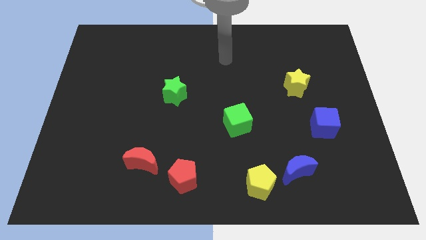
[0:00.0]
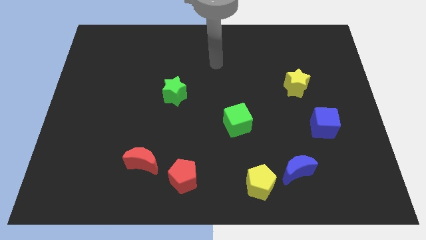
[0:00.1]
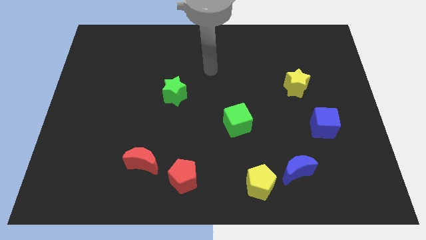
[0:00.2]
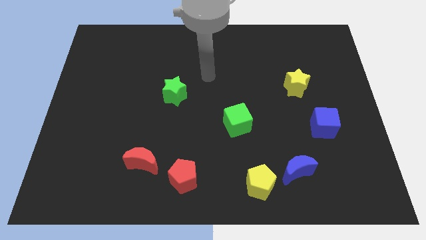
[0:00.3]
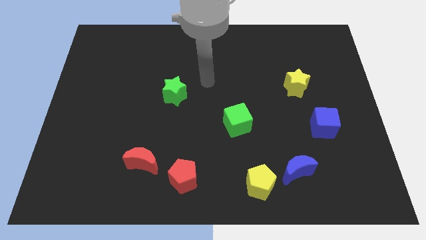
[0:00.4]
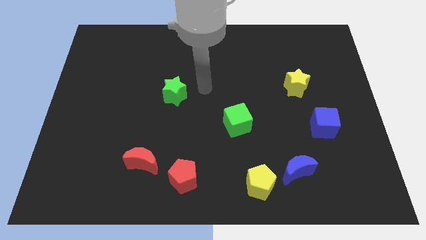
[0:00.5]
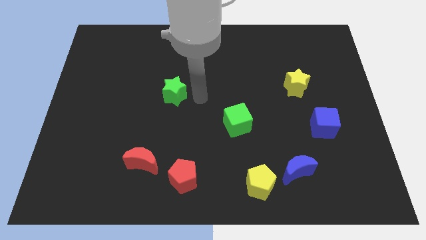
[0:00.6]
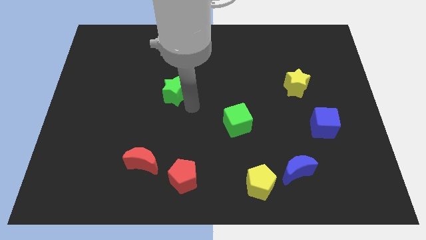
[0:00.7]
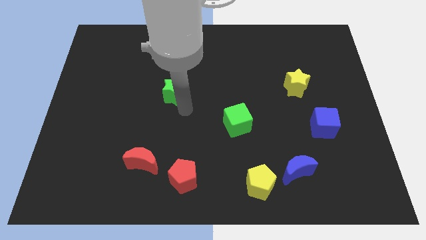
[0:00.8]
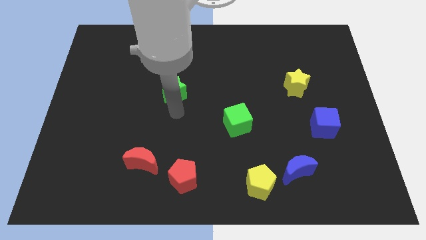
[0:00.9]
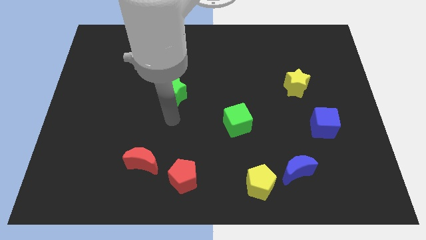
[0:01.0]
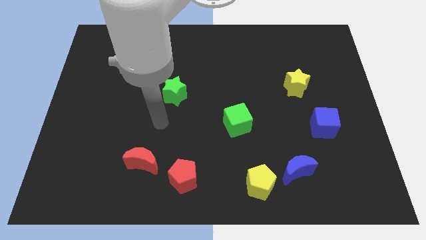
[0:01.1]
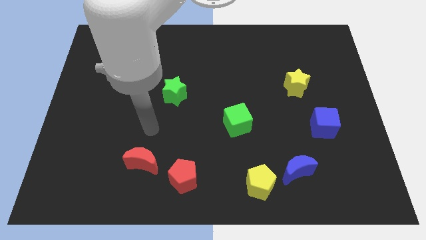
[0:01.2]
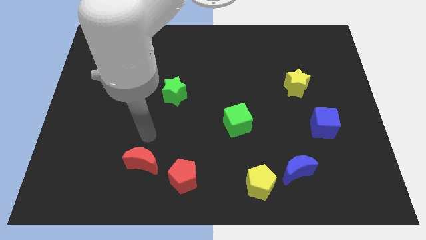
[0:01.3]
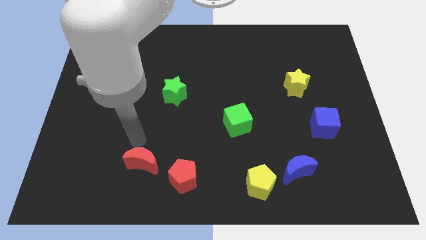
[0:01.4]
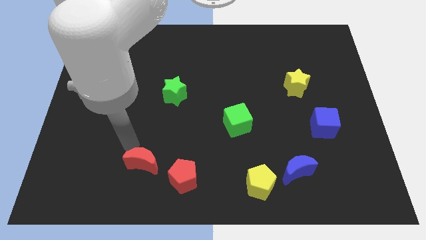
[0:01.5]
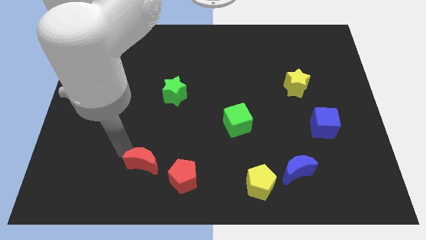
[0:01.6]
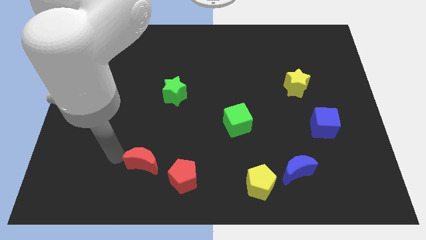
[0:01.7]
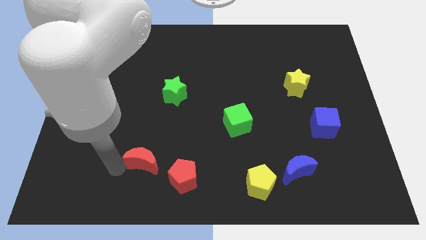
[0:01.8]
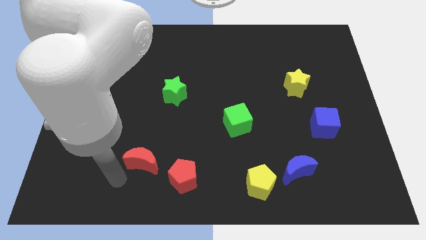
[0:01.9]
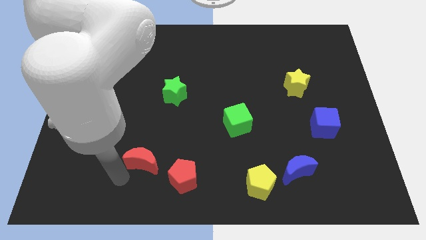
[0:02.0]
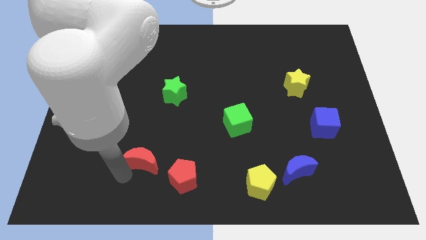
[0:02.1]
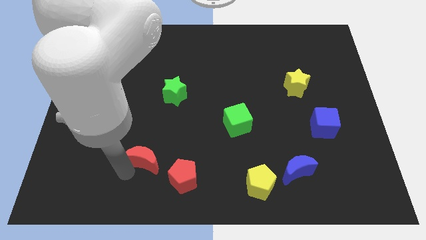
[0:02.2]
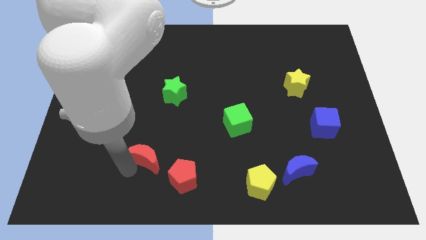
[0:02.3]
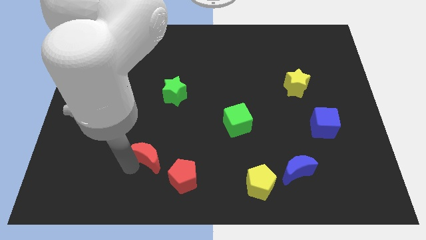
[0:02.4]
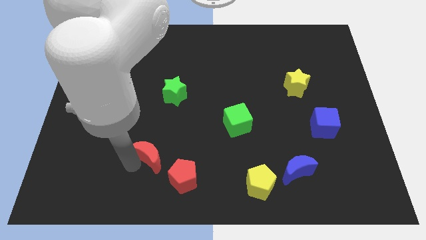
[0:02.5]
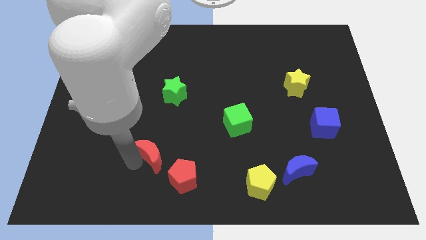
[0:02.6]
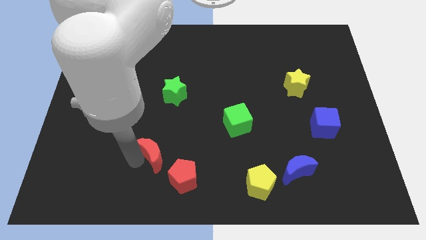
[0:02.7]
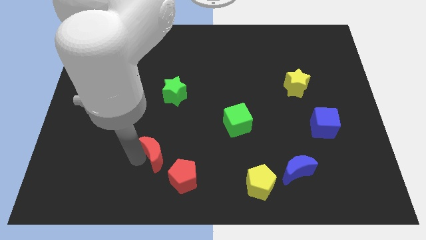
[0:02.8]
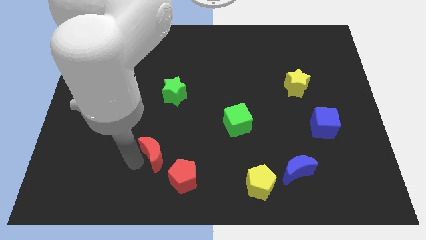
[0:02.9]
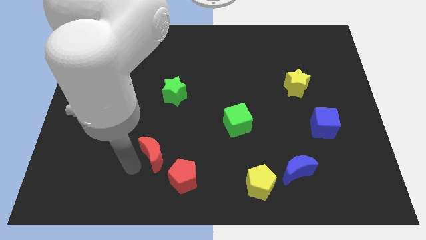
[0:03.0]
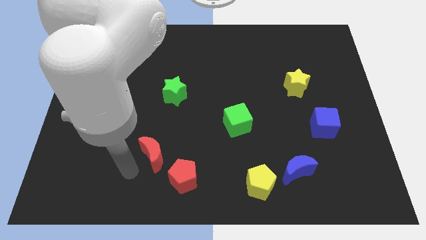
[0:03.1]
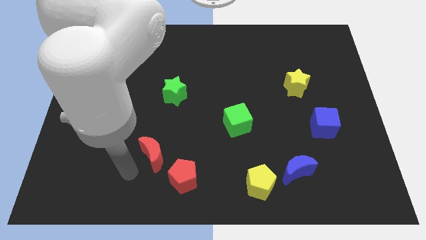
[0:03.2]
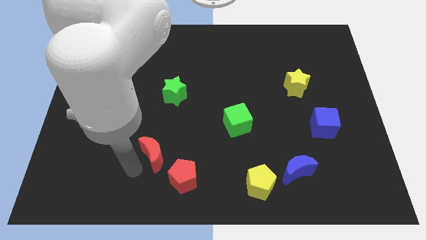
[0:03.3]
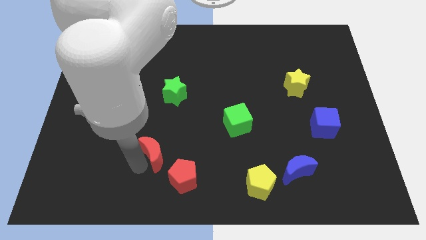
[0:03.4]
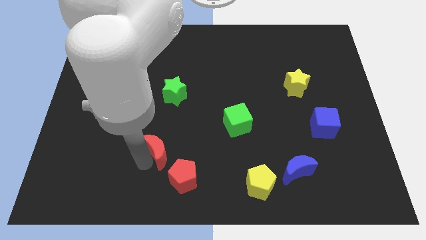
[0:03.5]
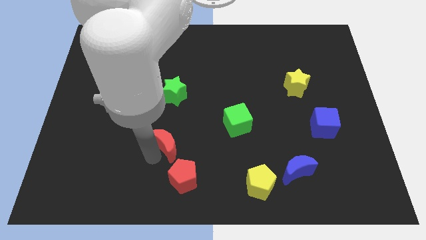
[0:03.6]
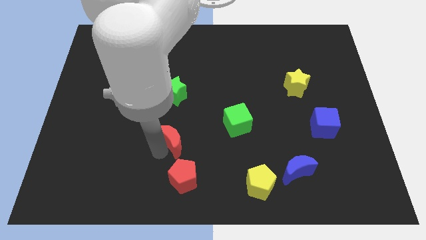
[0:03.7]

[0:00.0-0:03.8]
slide the red moon diagonally upwards and right slightly

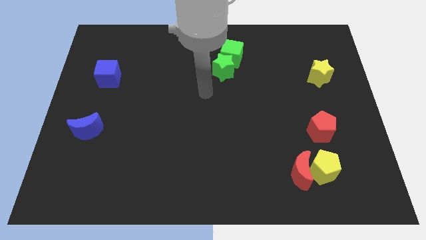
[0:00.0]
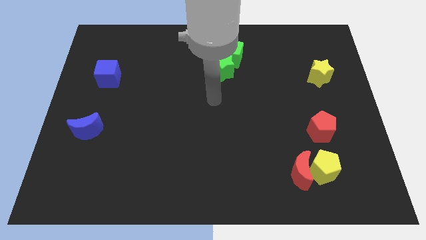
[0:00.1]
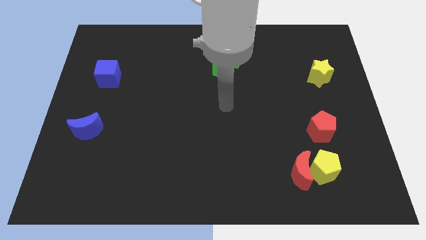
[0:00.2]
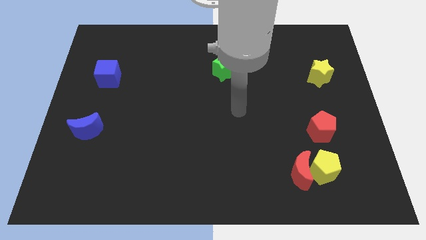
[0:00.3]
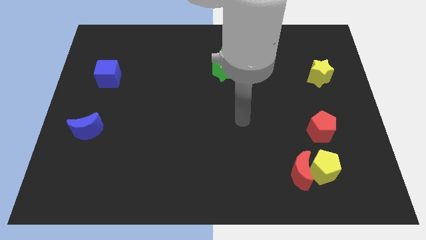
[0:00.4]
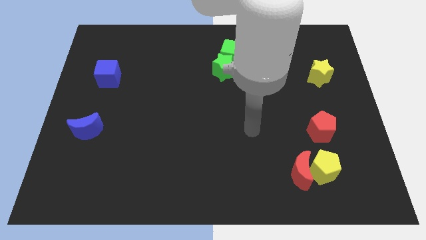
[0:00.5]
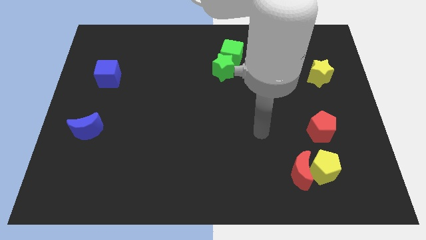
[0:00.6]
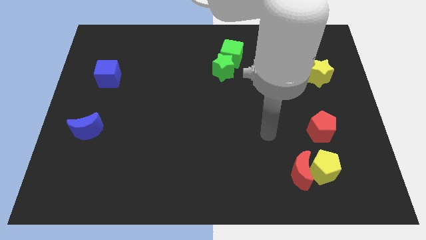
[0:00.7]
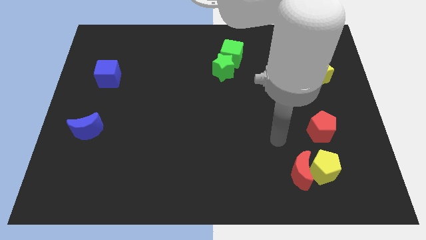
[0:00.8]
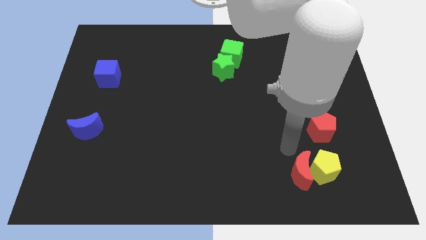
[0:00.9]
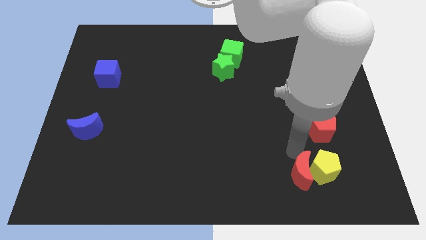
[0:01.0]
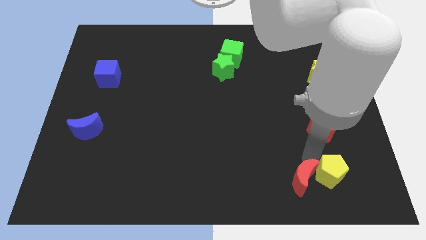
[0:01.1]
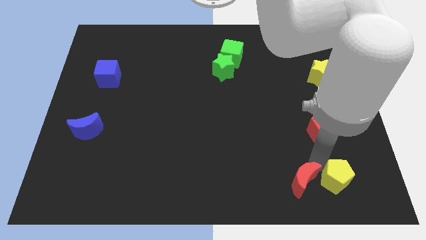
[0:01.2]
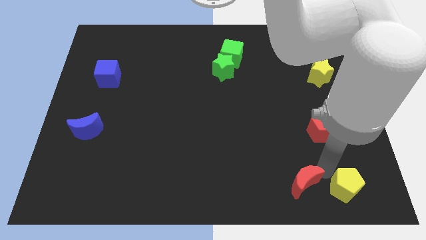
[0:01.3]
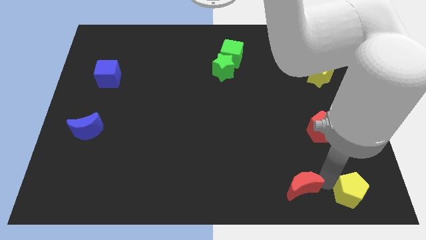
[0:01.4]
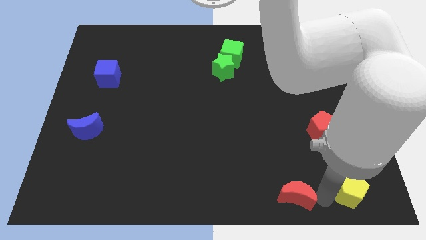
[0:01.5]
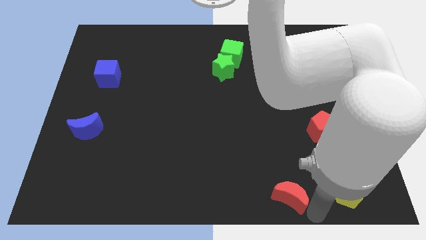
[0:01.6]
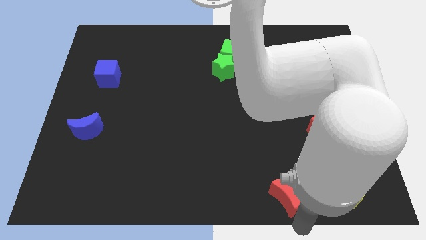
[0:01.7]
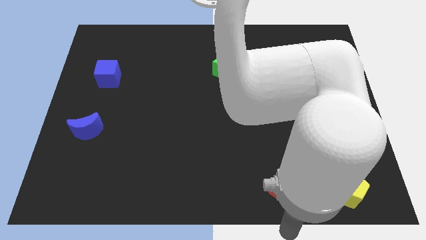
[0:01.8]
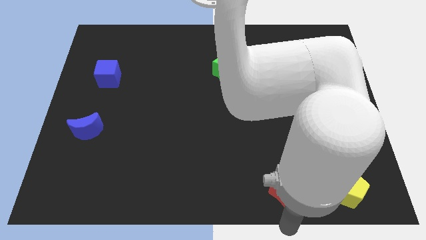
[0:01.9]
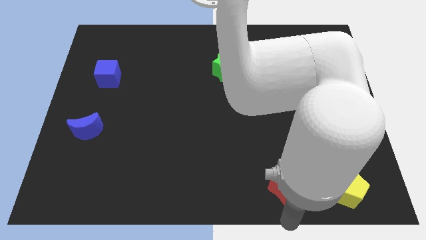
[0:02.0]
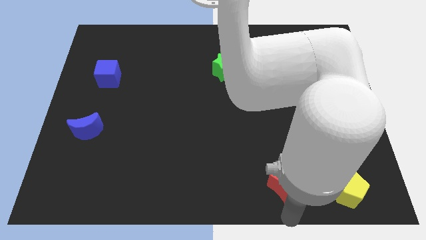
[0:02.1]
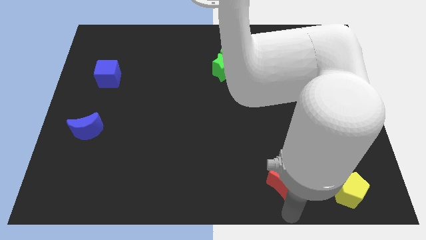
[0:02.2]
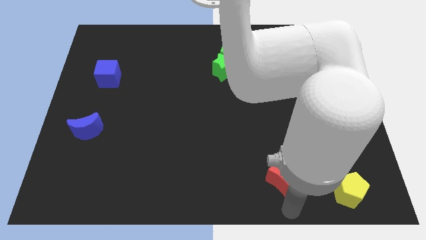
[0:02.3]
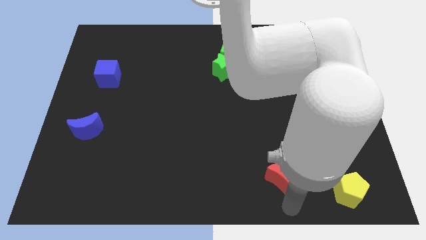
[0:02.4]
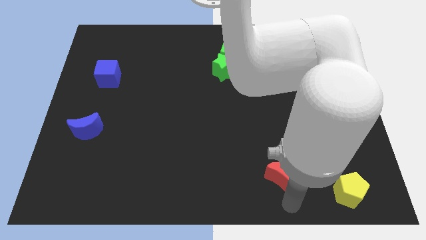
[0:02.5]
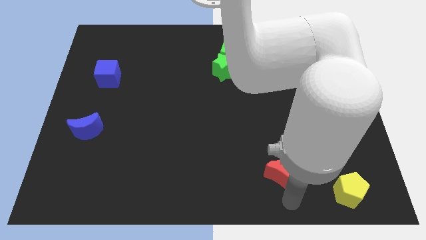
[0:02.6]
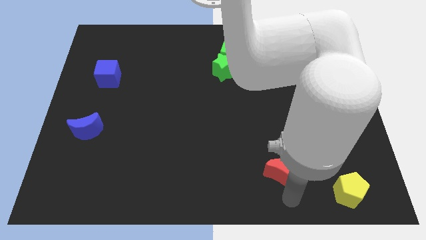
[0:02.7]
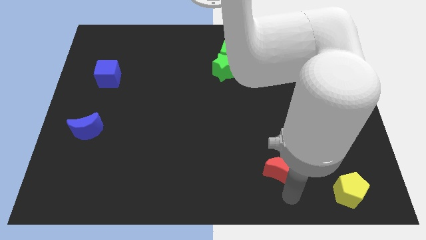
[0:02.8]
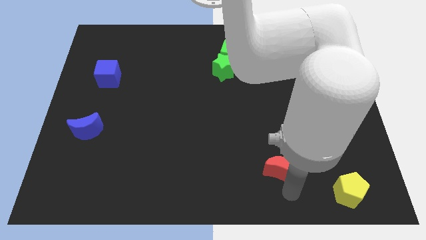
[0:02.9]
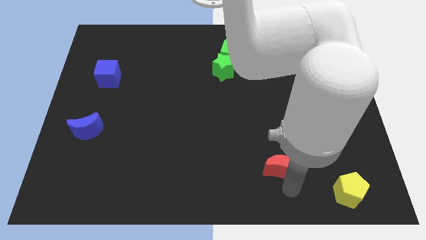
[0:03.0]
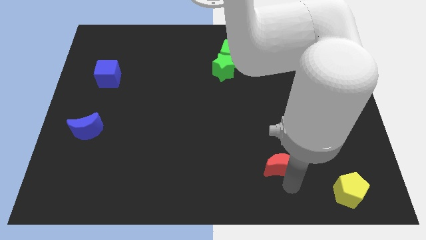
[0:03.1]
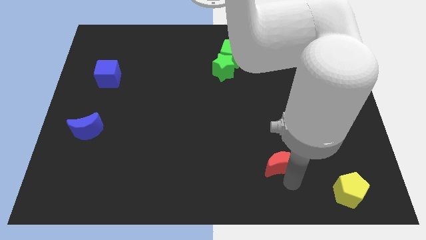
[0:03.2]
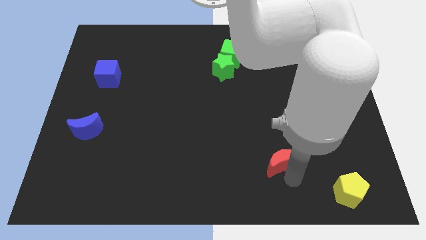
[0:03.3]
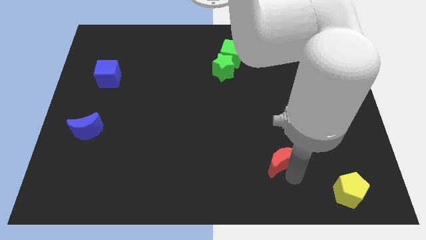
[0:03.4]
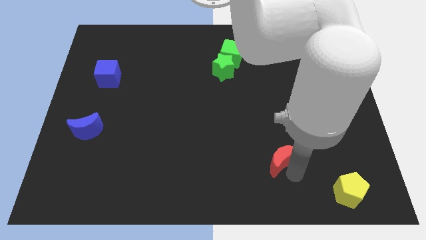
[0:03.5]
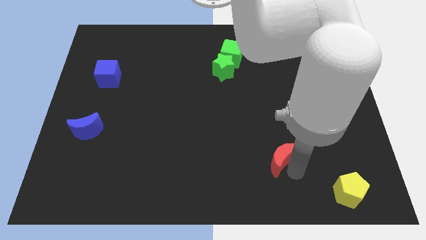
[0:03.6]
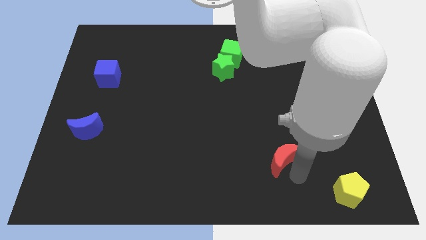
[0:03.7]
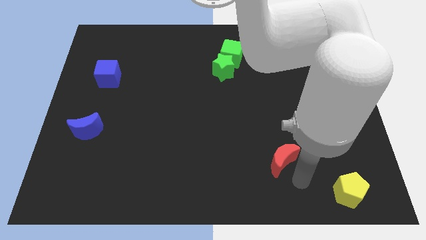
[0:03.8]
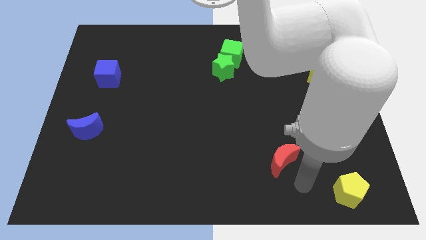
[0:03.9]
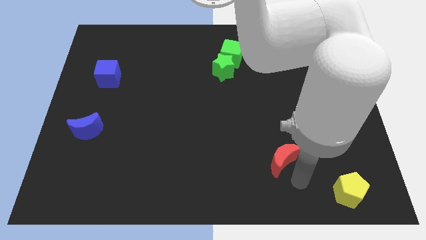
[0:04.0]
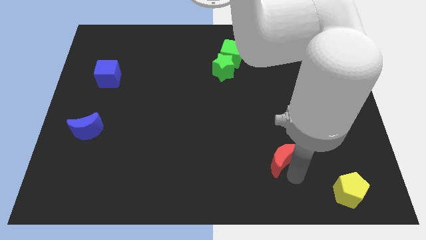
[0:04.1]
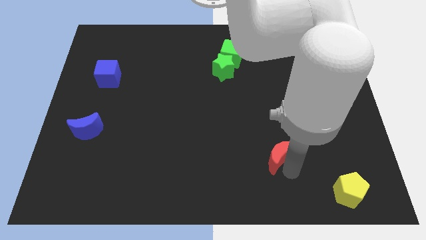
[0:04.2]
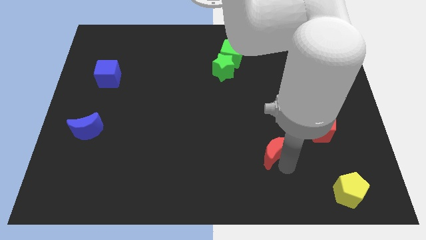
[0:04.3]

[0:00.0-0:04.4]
slightly slide the red moon upwards and left
